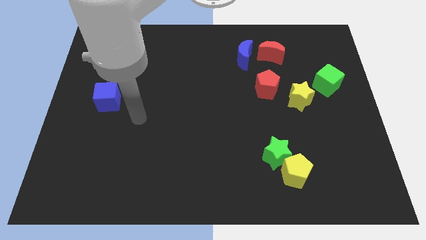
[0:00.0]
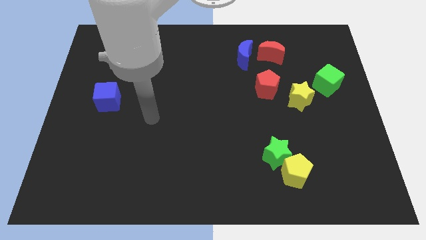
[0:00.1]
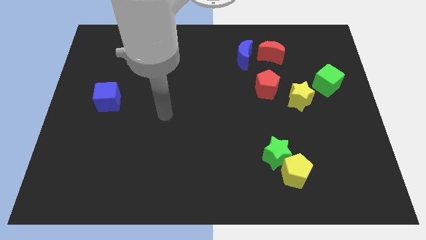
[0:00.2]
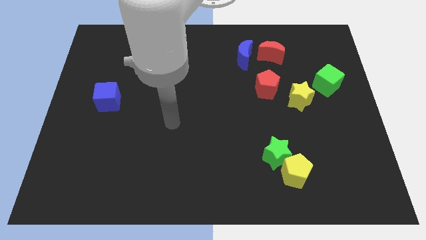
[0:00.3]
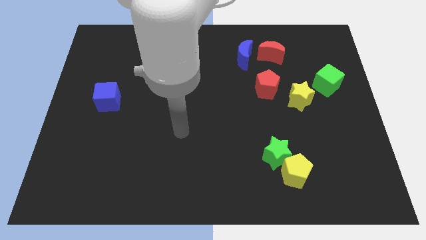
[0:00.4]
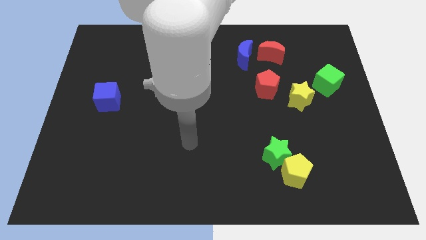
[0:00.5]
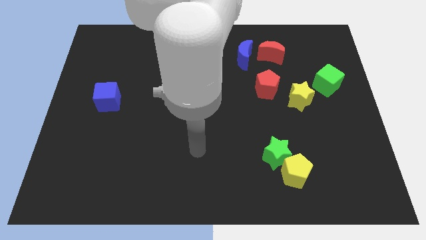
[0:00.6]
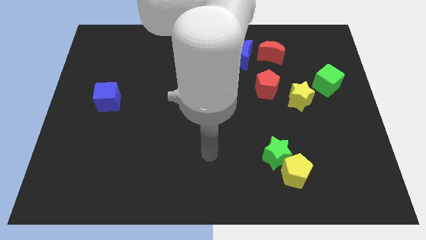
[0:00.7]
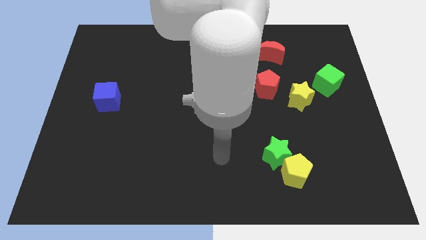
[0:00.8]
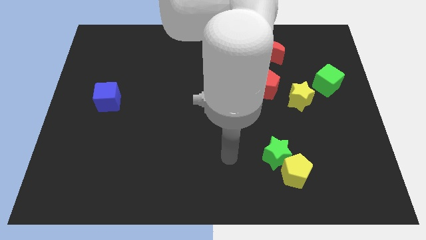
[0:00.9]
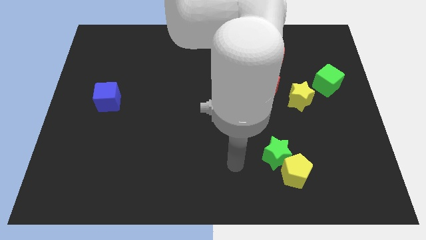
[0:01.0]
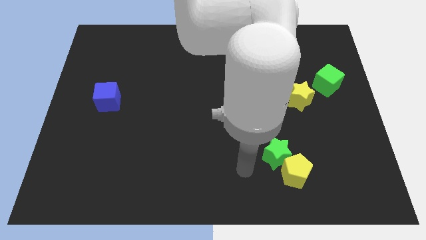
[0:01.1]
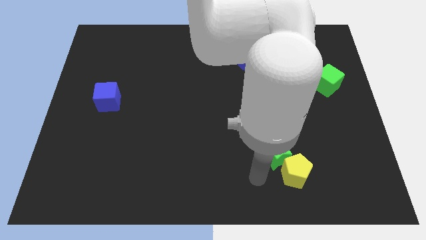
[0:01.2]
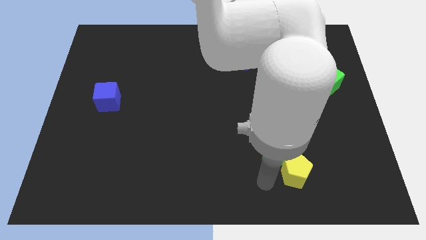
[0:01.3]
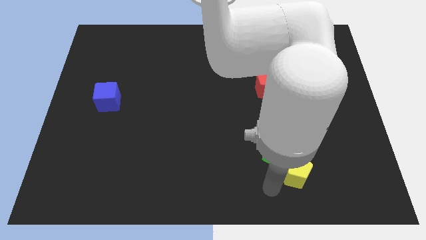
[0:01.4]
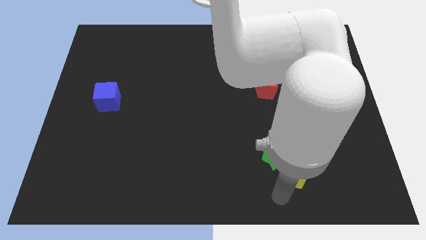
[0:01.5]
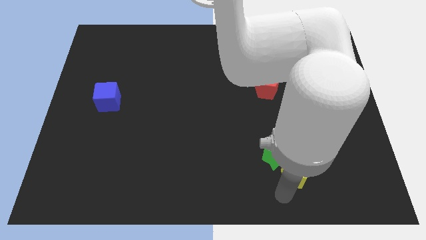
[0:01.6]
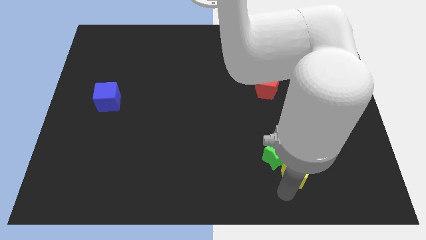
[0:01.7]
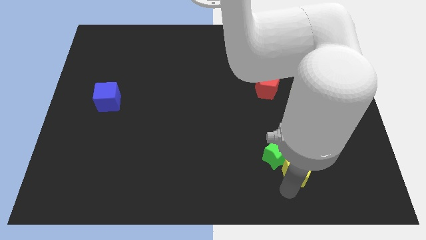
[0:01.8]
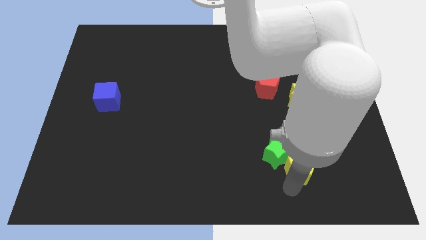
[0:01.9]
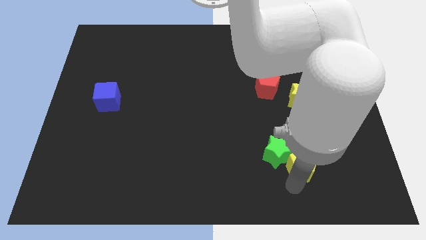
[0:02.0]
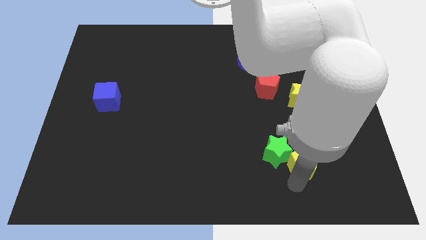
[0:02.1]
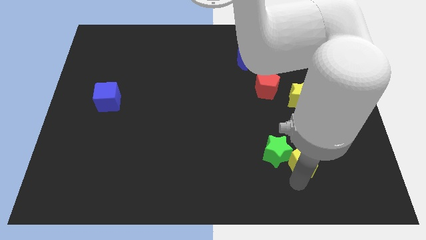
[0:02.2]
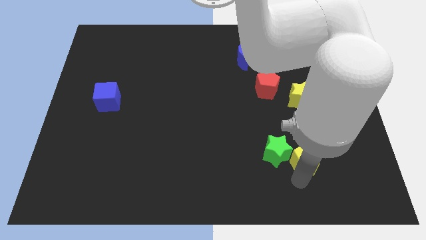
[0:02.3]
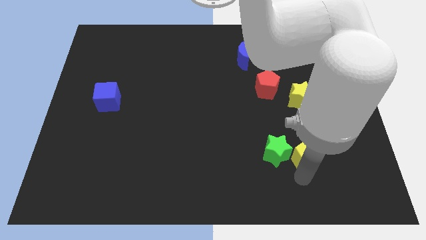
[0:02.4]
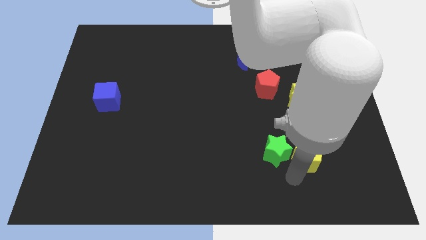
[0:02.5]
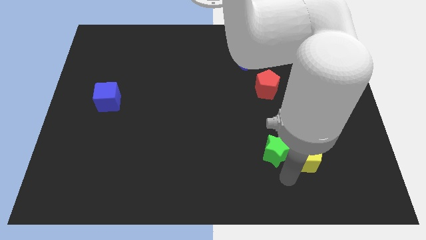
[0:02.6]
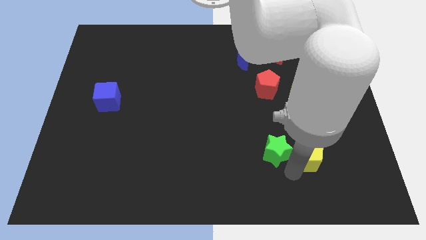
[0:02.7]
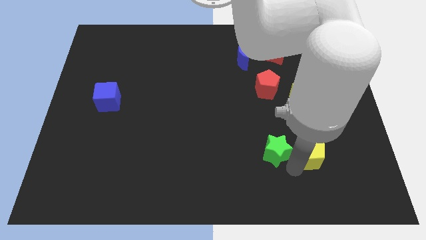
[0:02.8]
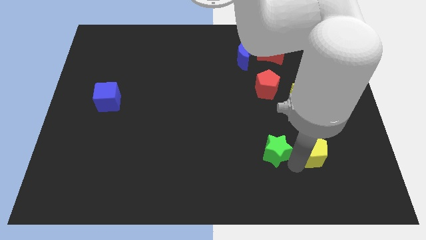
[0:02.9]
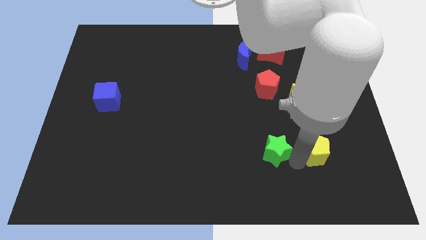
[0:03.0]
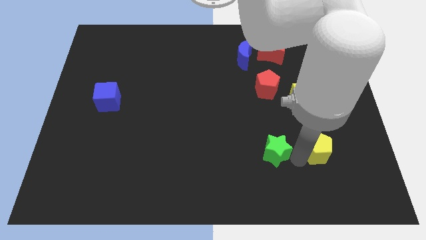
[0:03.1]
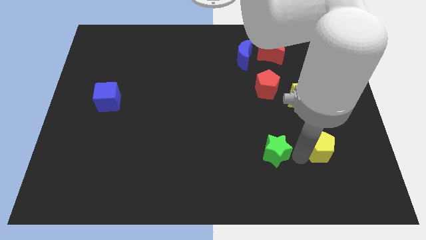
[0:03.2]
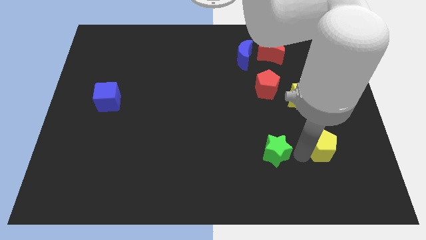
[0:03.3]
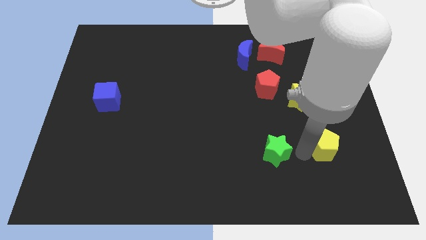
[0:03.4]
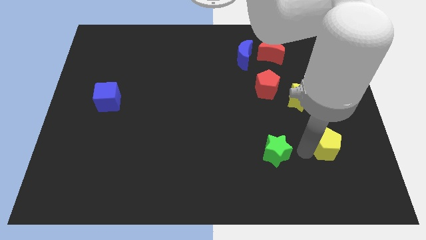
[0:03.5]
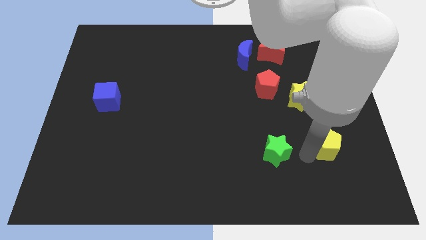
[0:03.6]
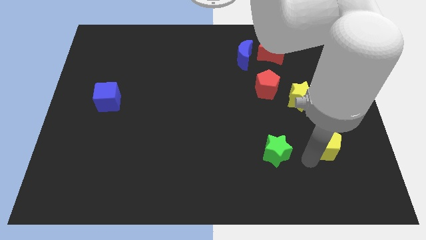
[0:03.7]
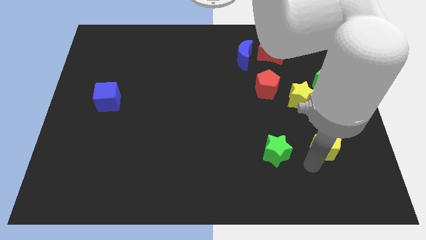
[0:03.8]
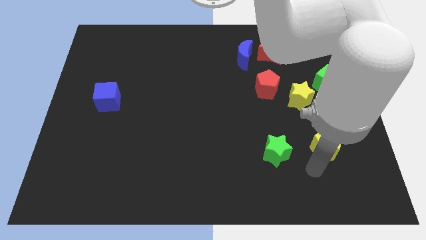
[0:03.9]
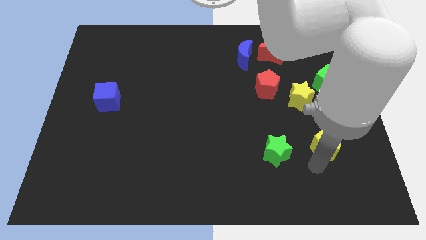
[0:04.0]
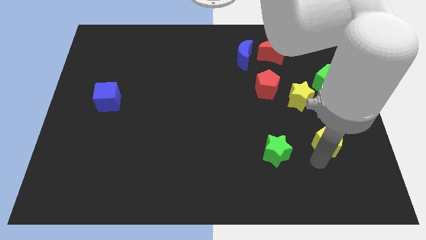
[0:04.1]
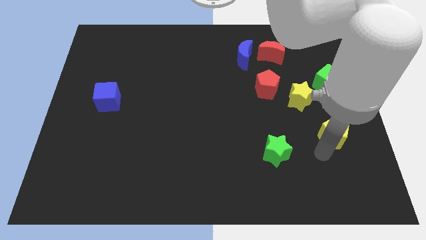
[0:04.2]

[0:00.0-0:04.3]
slide the yellow pentagon to the bottom side of the green cube

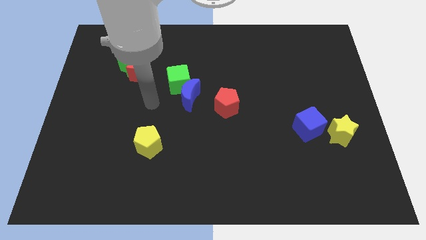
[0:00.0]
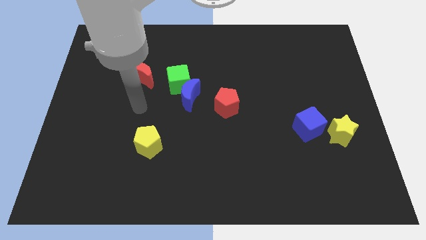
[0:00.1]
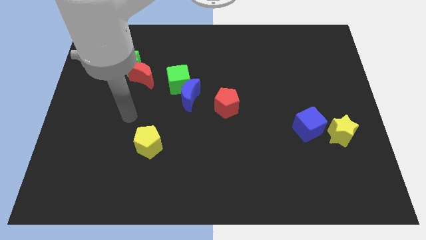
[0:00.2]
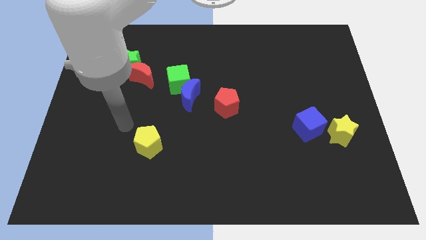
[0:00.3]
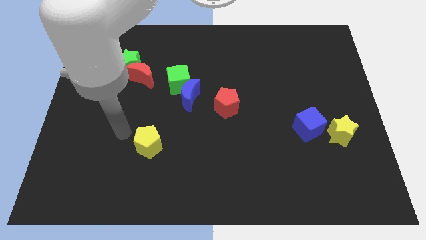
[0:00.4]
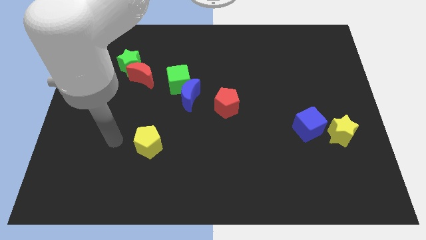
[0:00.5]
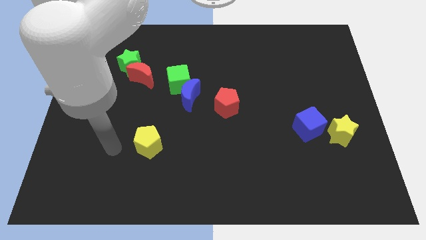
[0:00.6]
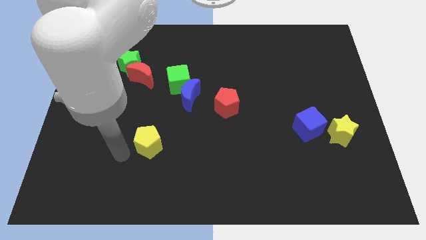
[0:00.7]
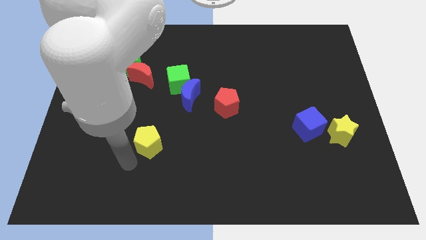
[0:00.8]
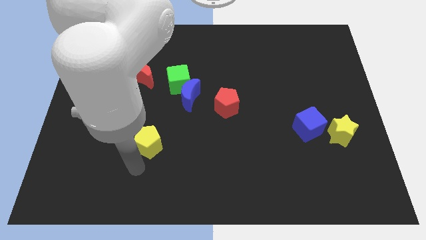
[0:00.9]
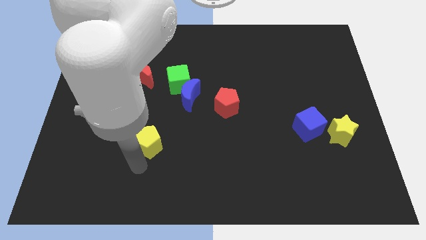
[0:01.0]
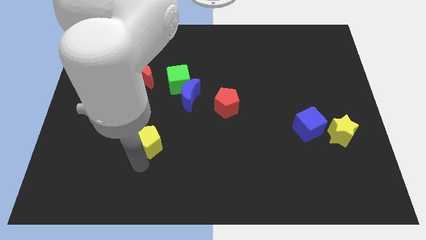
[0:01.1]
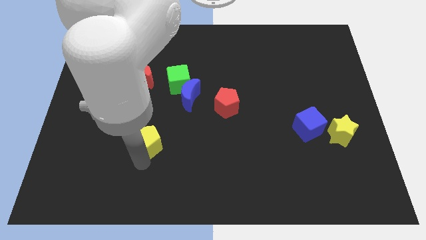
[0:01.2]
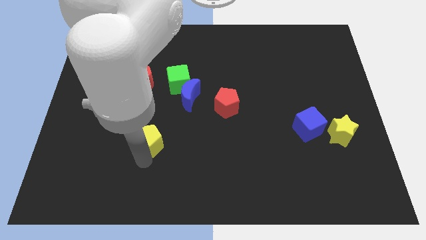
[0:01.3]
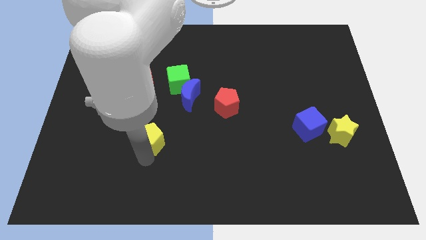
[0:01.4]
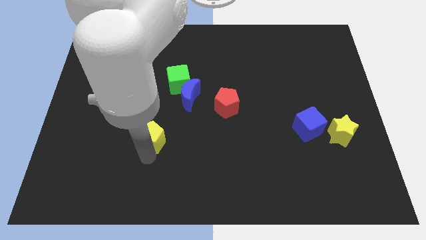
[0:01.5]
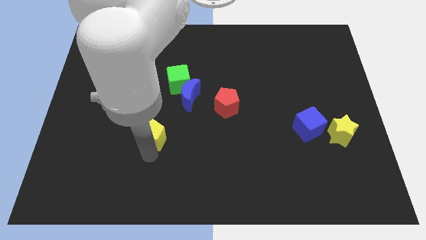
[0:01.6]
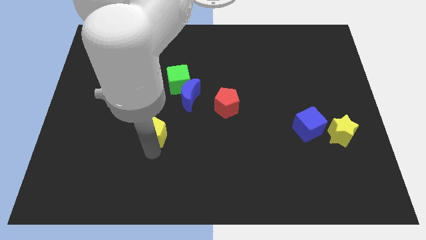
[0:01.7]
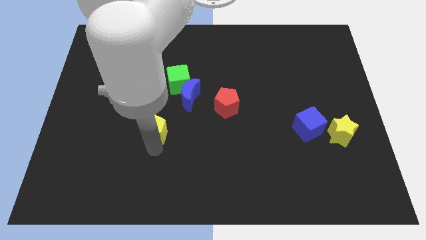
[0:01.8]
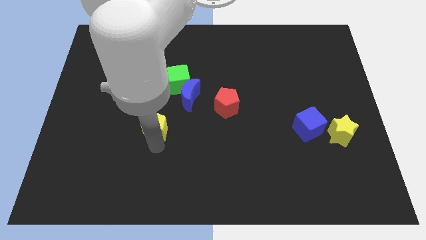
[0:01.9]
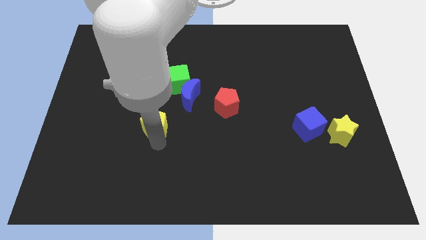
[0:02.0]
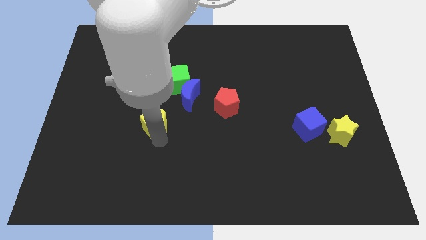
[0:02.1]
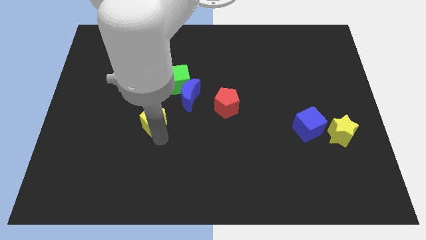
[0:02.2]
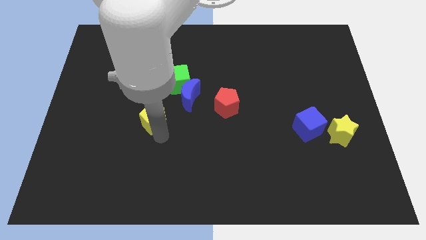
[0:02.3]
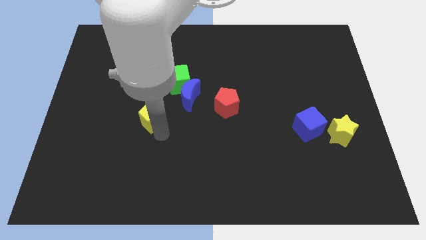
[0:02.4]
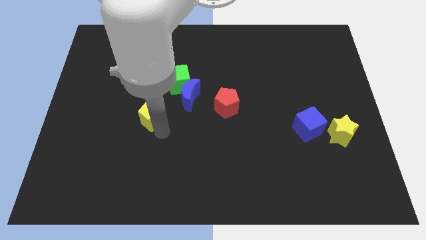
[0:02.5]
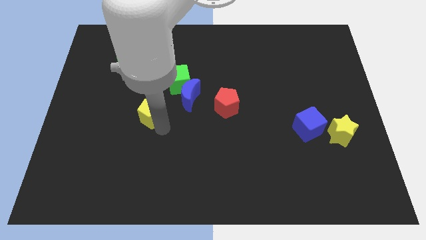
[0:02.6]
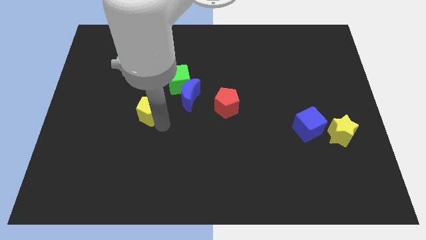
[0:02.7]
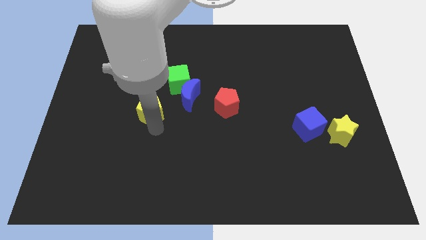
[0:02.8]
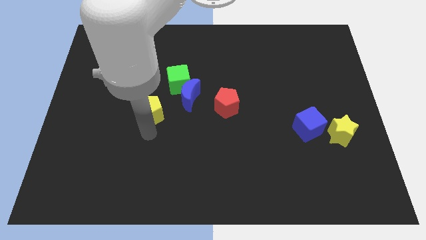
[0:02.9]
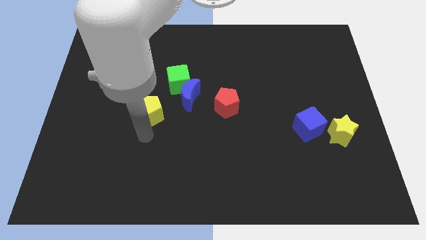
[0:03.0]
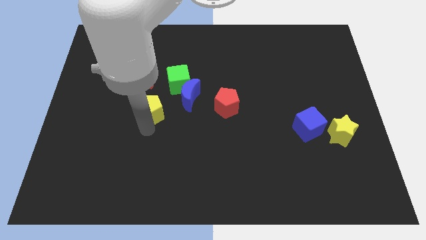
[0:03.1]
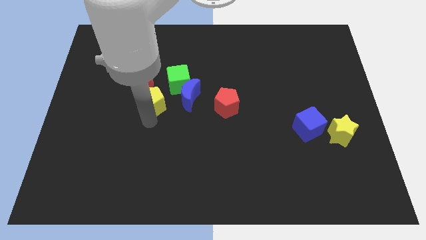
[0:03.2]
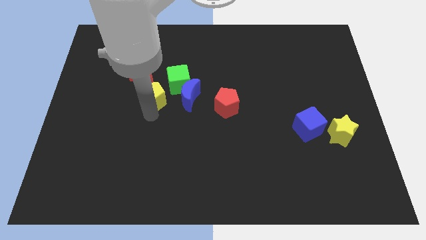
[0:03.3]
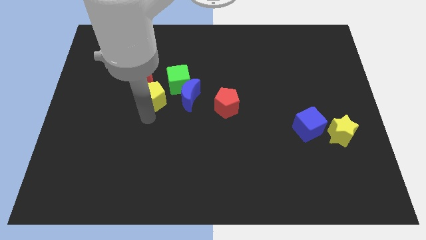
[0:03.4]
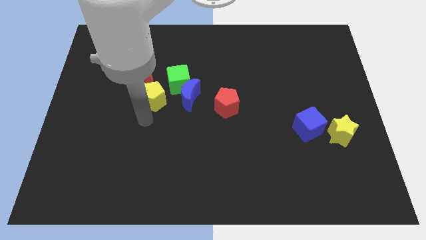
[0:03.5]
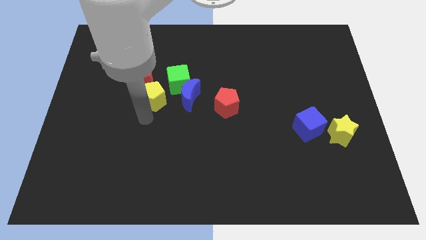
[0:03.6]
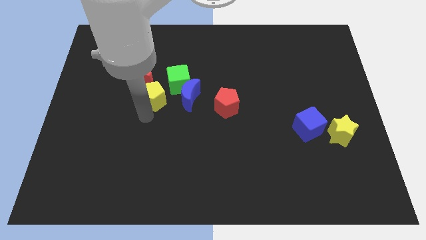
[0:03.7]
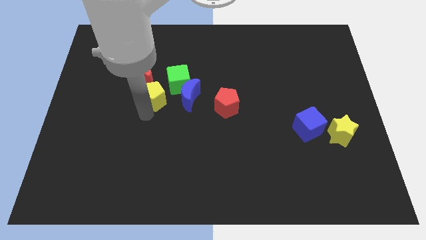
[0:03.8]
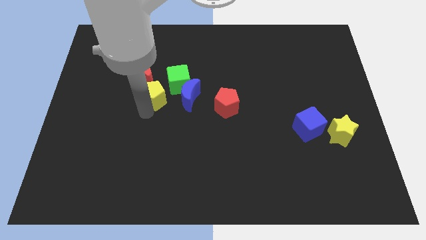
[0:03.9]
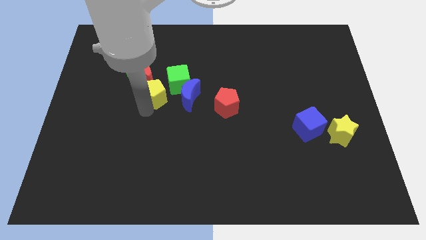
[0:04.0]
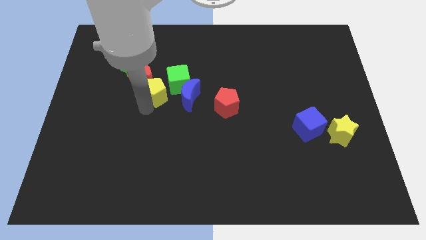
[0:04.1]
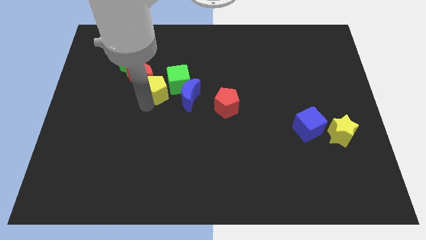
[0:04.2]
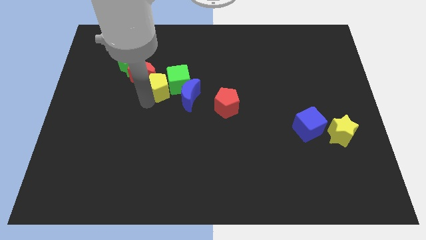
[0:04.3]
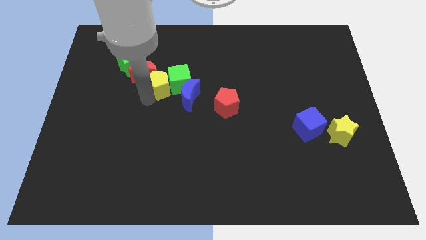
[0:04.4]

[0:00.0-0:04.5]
slide the yellow pentagon to the top left of the green cube
